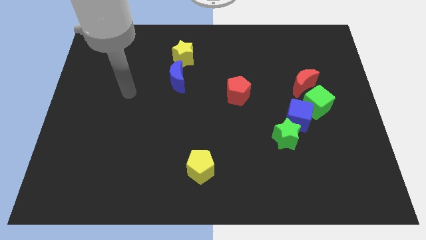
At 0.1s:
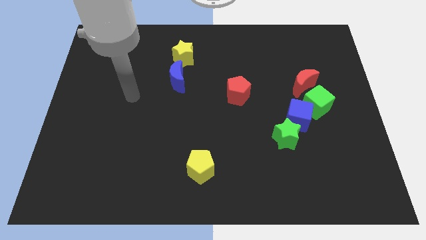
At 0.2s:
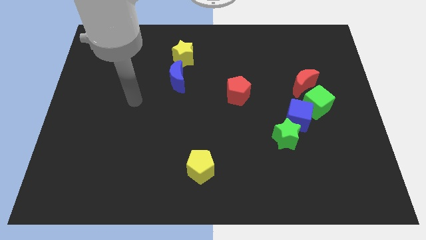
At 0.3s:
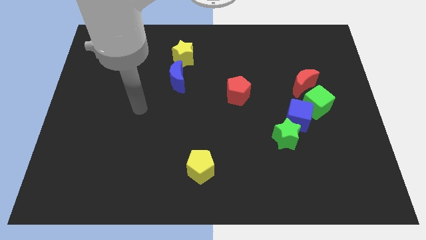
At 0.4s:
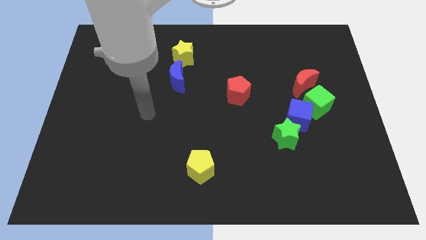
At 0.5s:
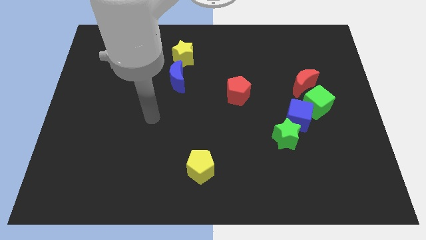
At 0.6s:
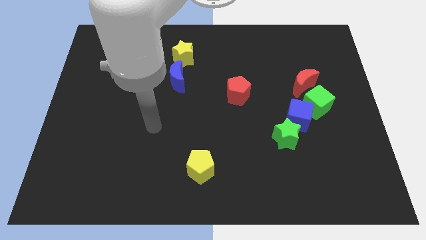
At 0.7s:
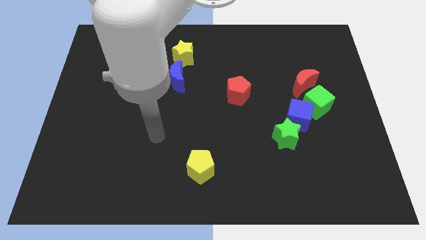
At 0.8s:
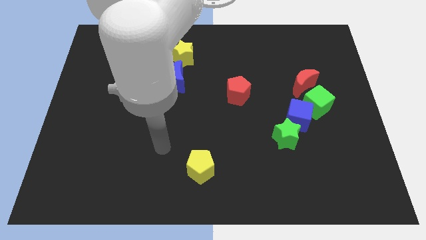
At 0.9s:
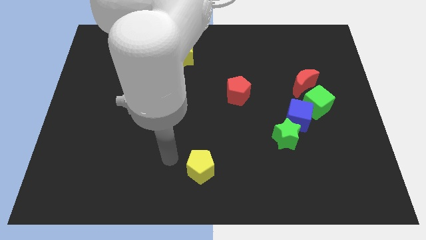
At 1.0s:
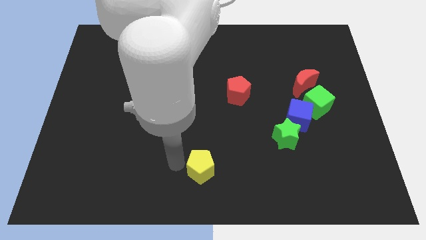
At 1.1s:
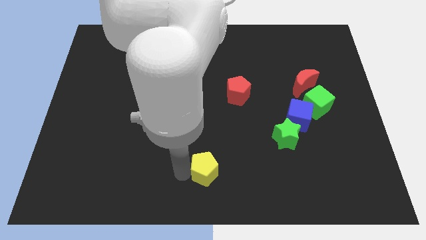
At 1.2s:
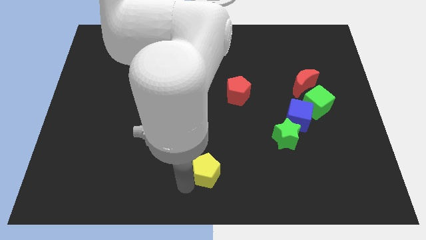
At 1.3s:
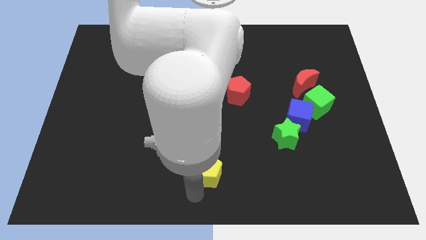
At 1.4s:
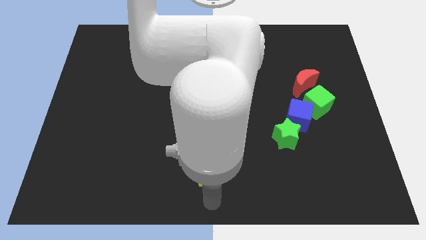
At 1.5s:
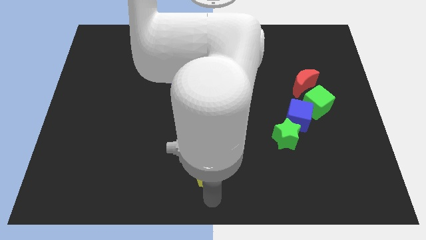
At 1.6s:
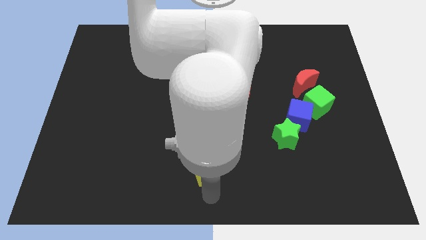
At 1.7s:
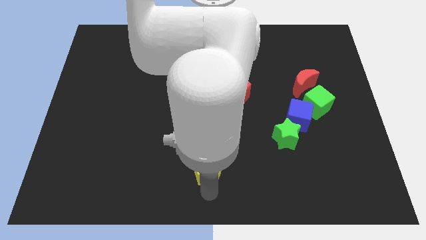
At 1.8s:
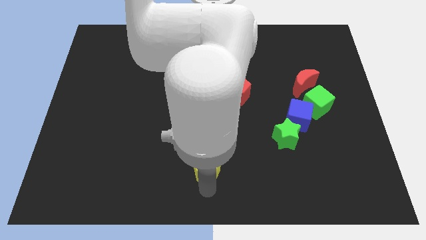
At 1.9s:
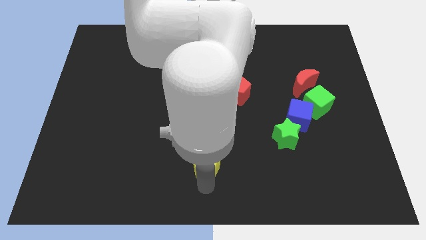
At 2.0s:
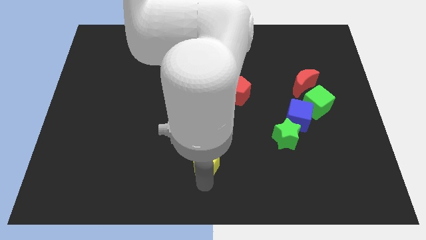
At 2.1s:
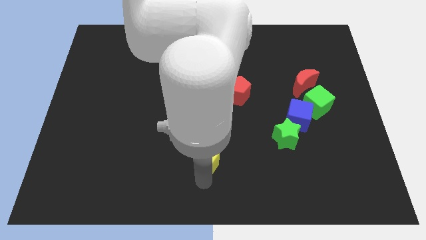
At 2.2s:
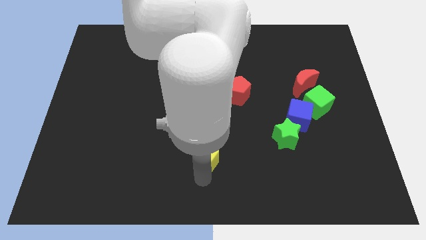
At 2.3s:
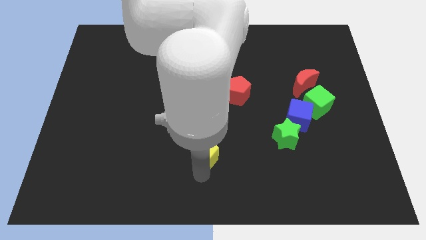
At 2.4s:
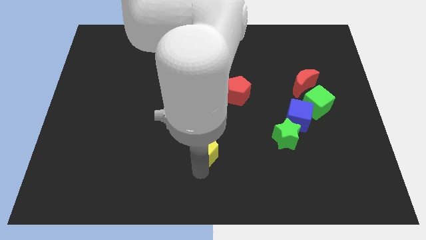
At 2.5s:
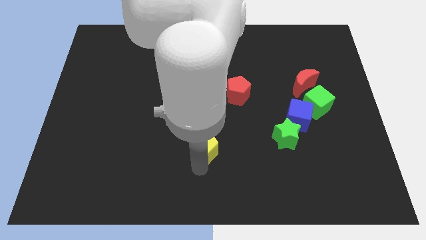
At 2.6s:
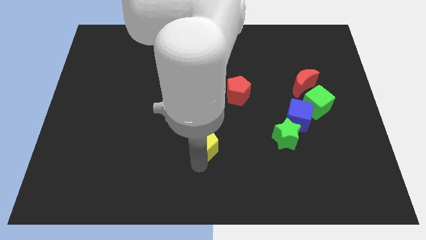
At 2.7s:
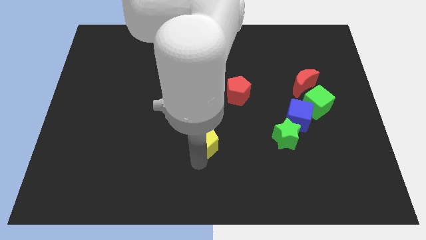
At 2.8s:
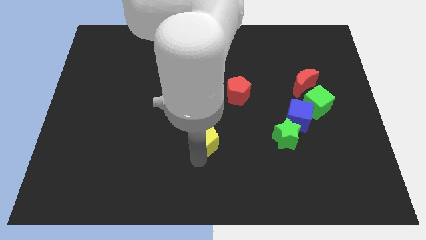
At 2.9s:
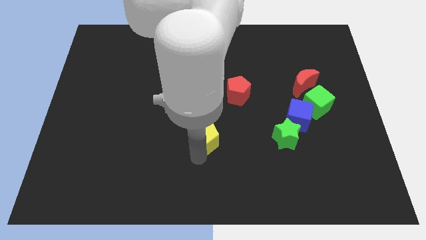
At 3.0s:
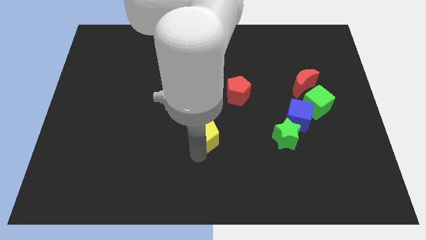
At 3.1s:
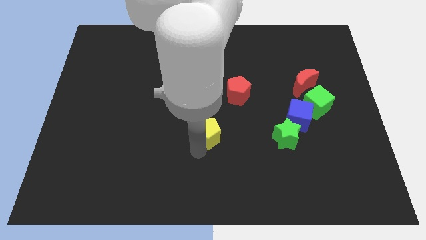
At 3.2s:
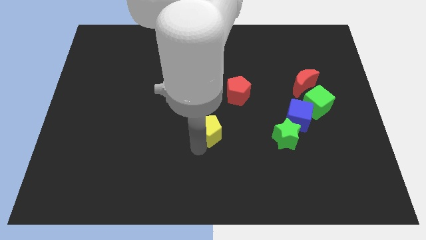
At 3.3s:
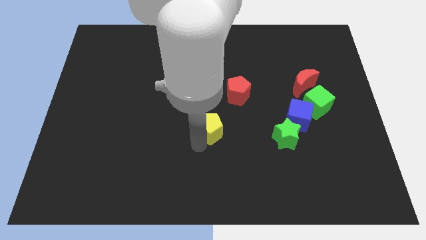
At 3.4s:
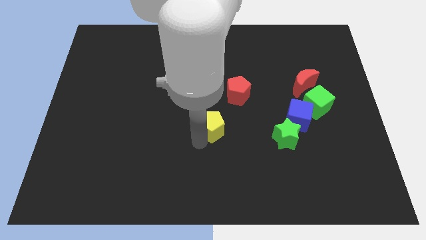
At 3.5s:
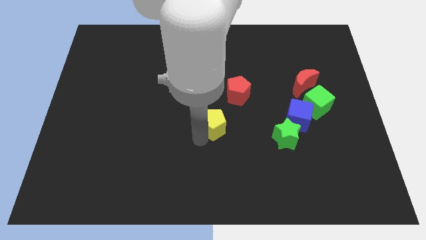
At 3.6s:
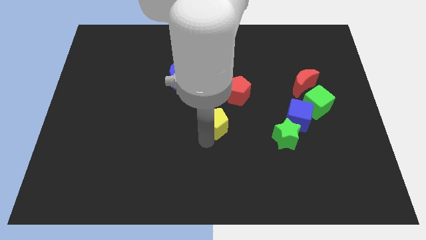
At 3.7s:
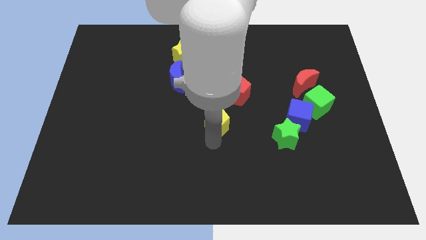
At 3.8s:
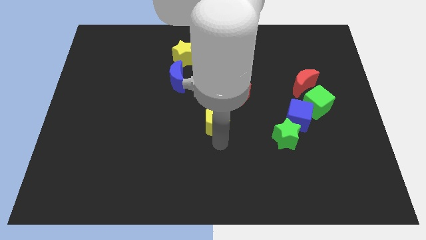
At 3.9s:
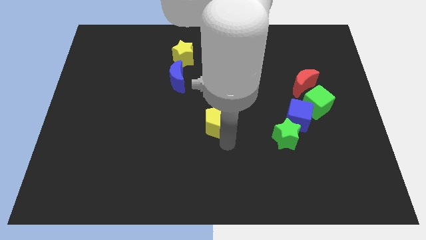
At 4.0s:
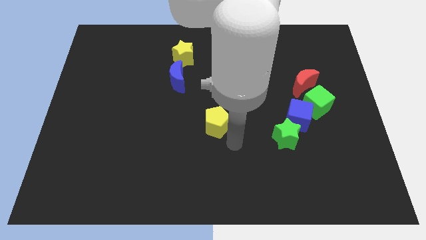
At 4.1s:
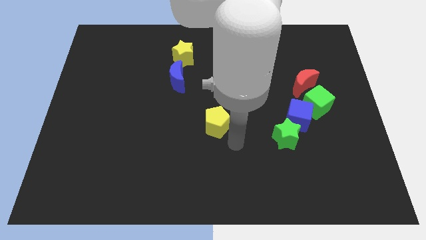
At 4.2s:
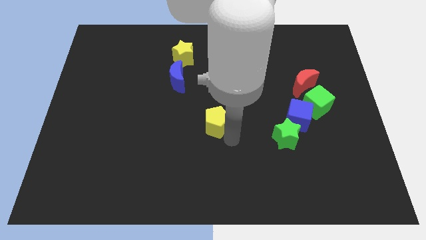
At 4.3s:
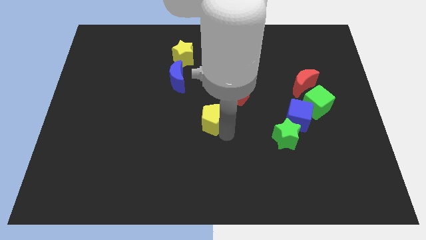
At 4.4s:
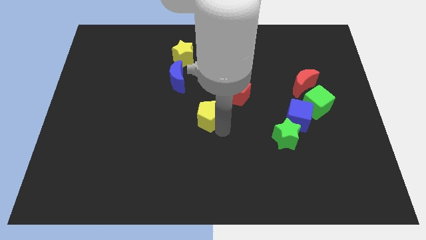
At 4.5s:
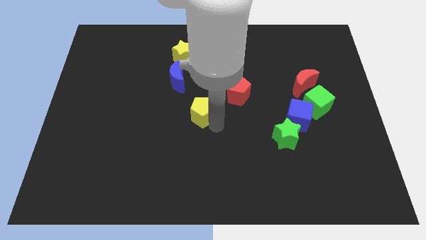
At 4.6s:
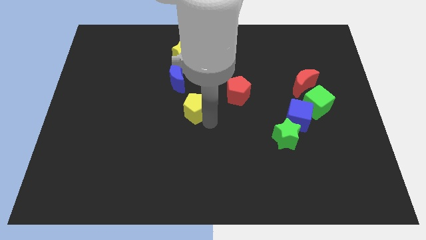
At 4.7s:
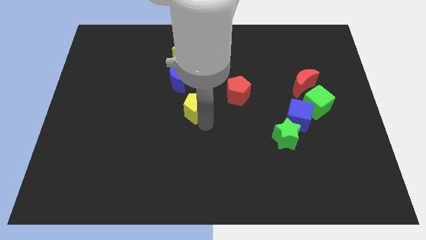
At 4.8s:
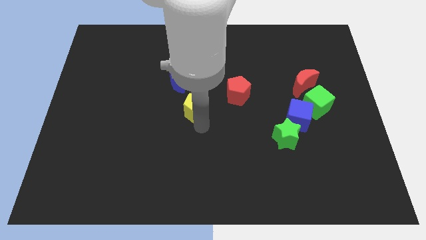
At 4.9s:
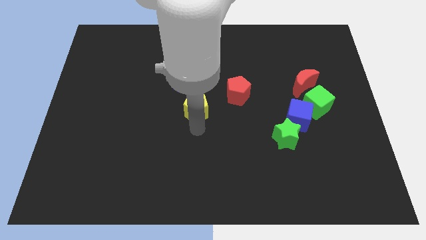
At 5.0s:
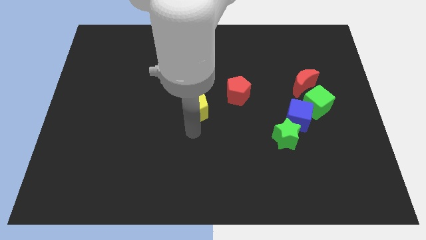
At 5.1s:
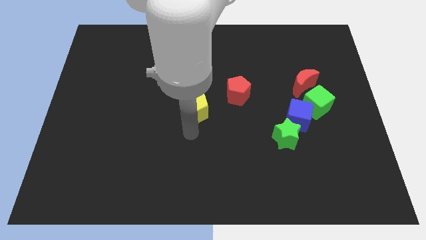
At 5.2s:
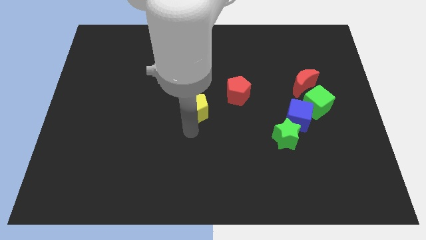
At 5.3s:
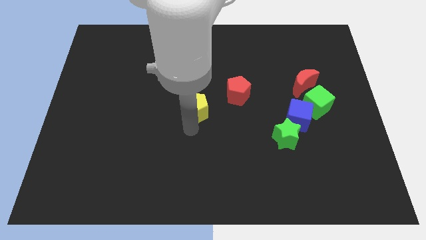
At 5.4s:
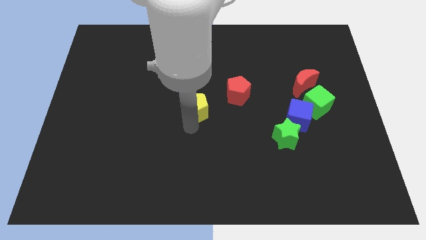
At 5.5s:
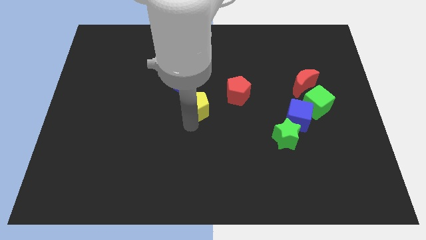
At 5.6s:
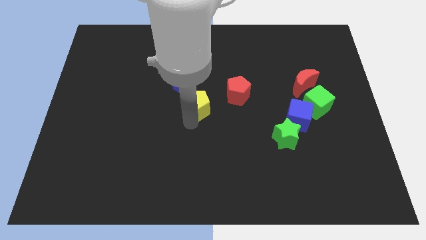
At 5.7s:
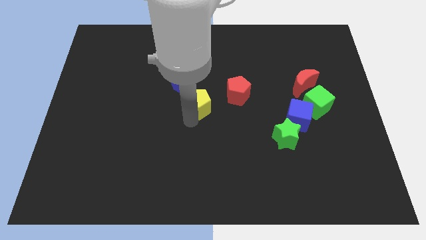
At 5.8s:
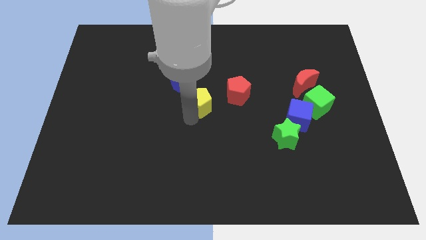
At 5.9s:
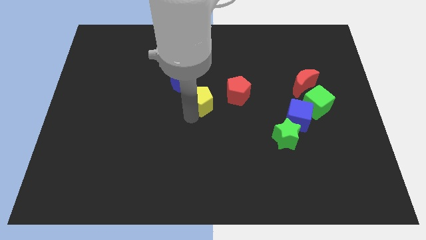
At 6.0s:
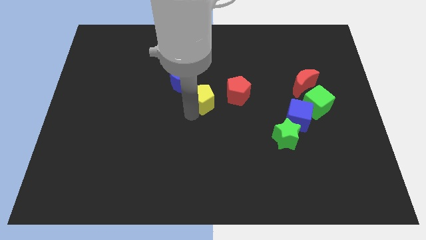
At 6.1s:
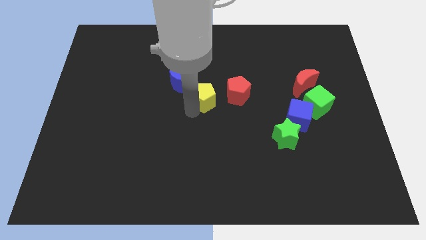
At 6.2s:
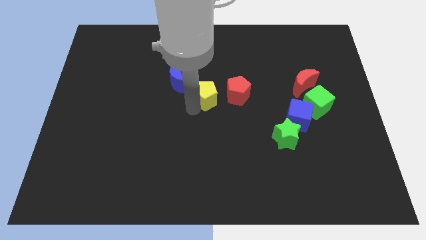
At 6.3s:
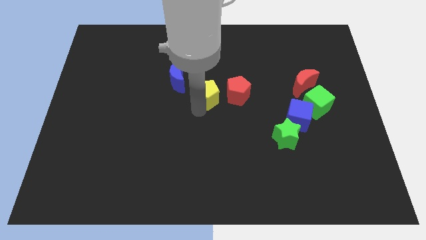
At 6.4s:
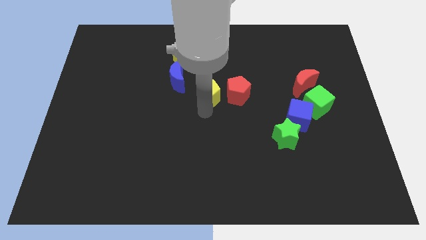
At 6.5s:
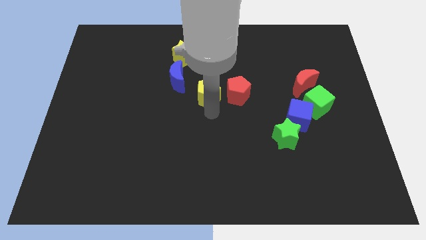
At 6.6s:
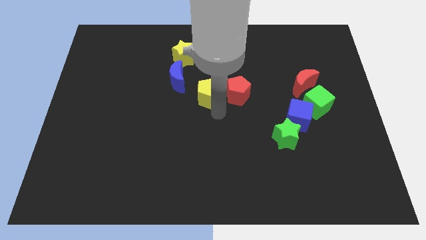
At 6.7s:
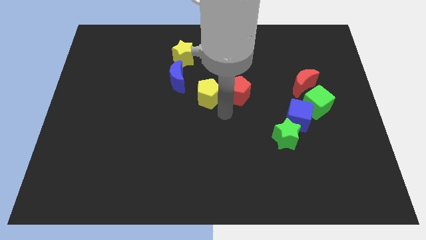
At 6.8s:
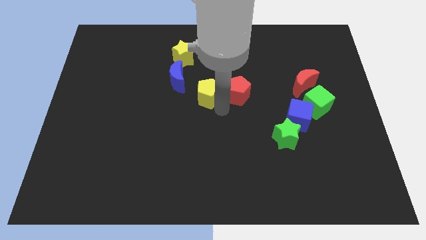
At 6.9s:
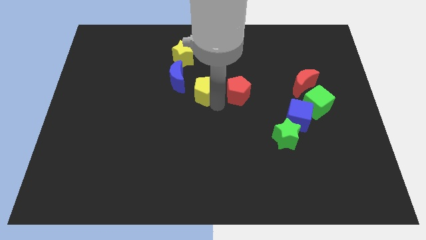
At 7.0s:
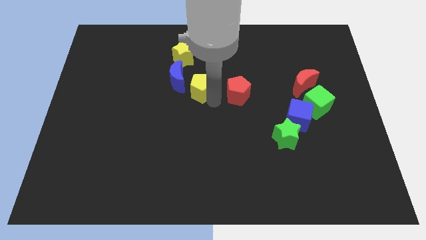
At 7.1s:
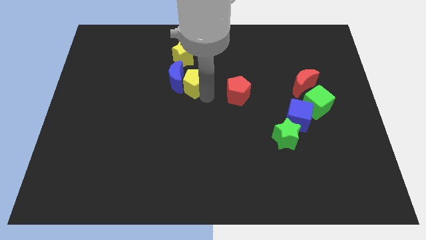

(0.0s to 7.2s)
slide the yellow pentagon diagonally up and to the right of the blue moon
